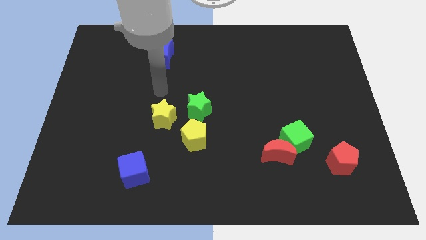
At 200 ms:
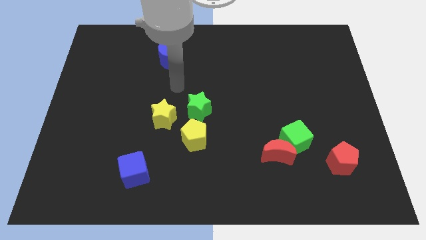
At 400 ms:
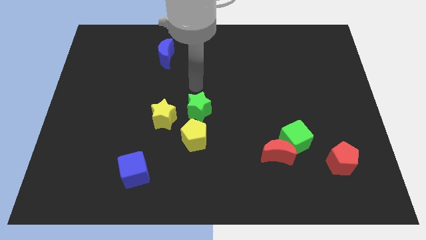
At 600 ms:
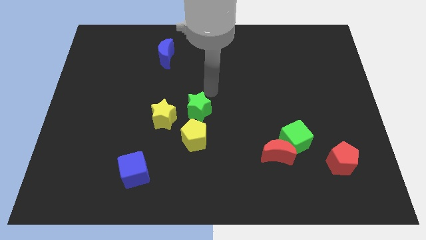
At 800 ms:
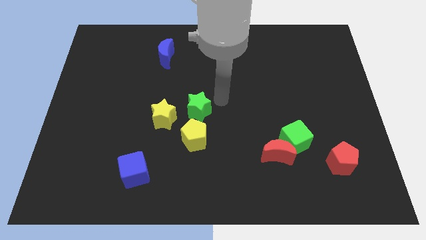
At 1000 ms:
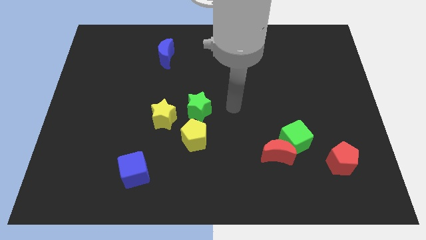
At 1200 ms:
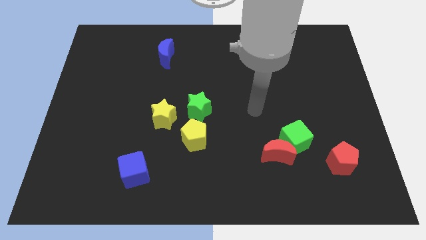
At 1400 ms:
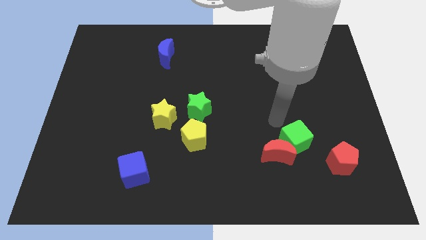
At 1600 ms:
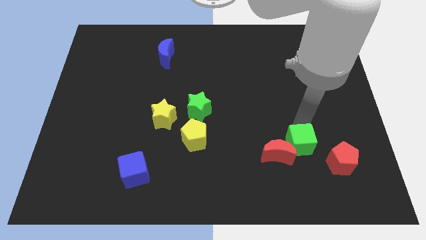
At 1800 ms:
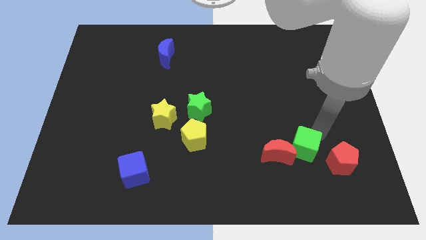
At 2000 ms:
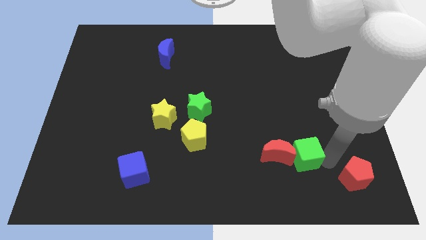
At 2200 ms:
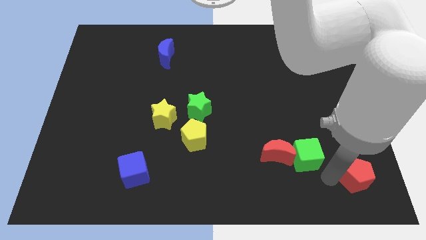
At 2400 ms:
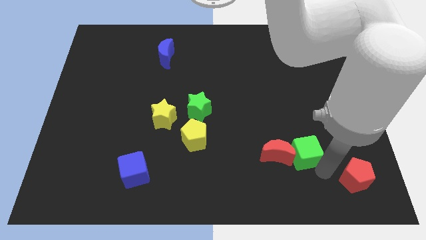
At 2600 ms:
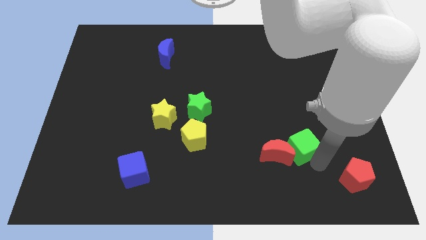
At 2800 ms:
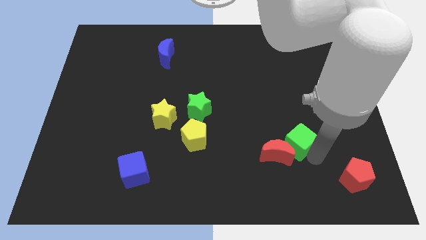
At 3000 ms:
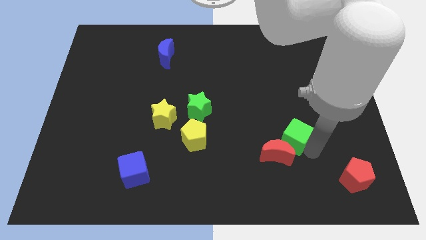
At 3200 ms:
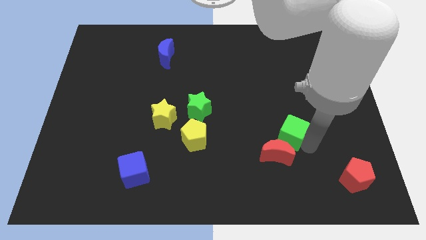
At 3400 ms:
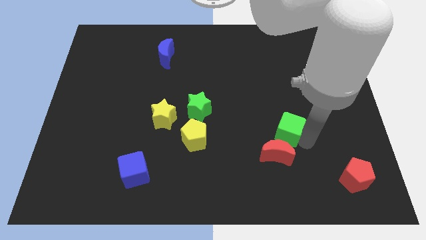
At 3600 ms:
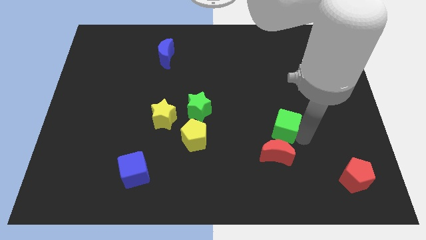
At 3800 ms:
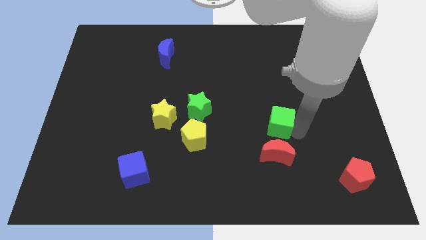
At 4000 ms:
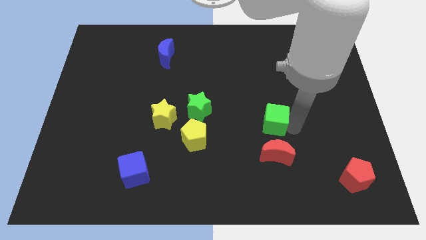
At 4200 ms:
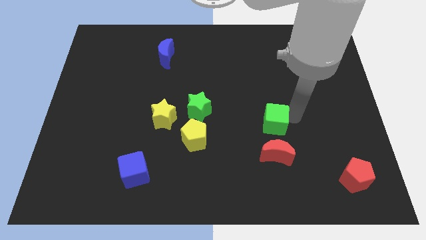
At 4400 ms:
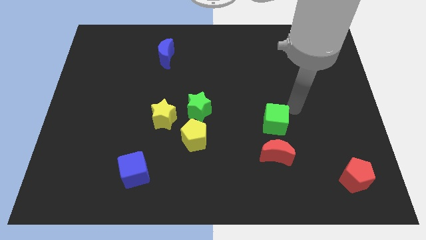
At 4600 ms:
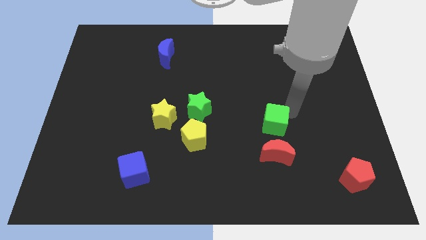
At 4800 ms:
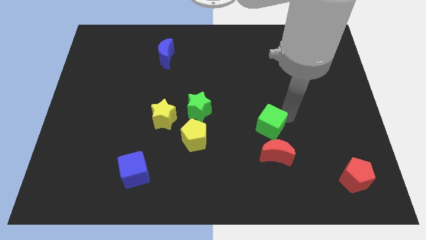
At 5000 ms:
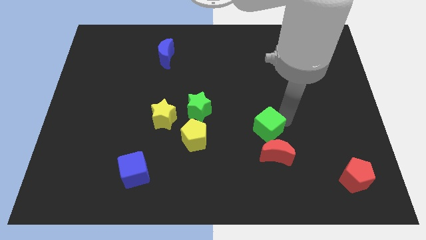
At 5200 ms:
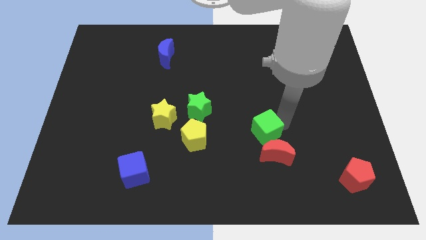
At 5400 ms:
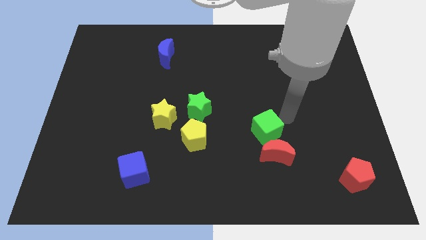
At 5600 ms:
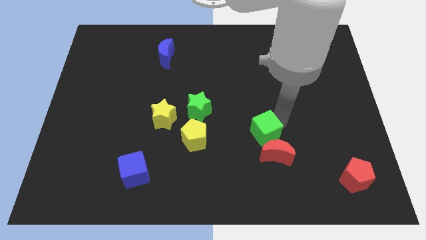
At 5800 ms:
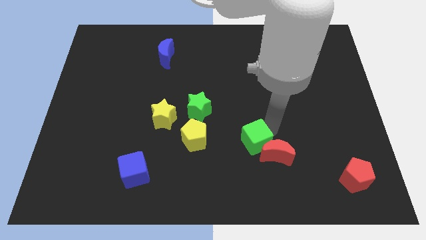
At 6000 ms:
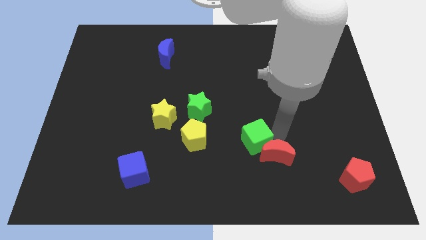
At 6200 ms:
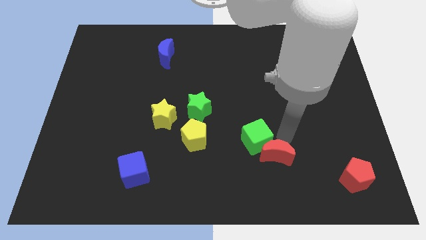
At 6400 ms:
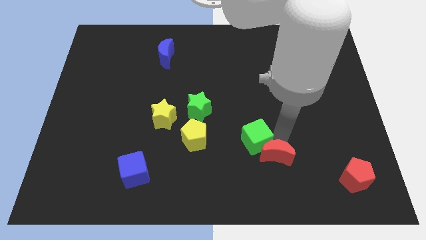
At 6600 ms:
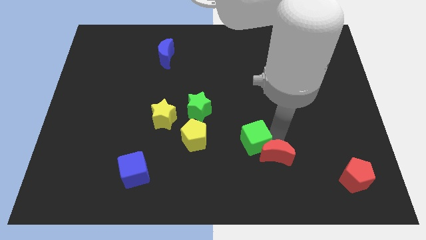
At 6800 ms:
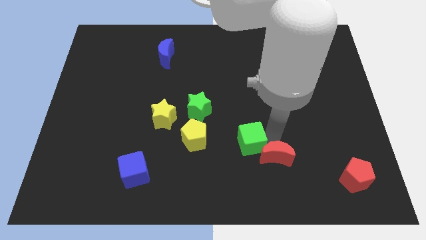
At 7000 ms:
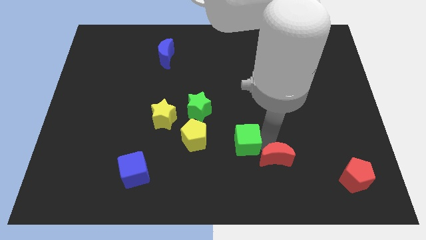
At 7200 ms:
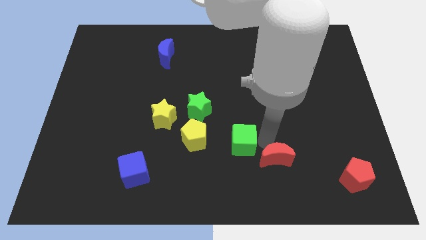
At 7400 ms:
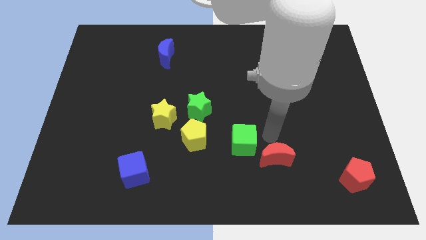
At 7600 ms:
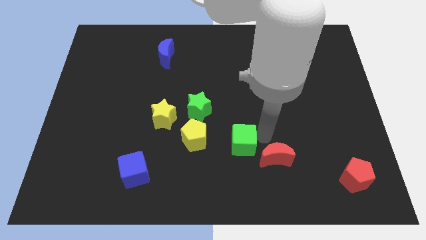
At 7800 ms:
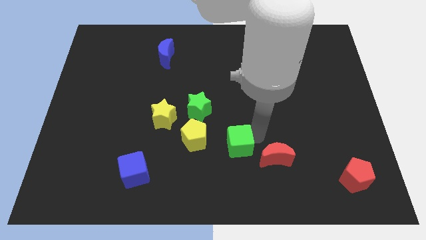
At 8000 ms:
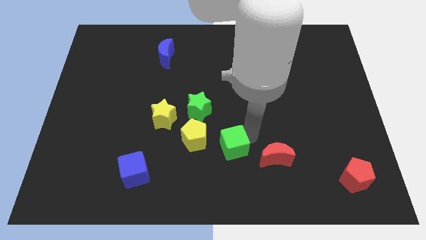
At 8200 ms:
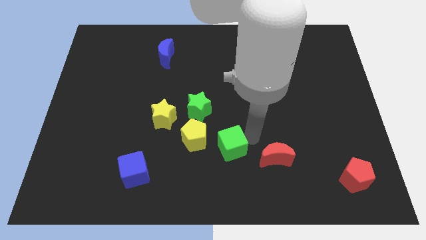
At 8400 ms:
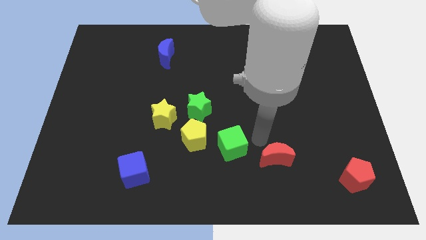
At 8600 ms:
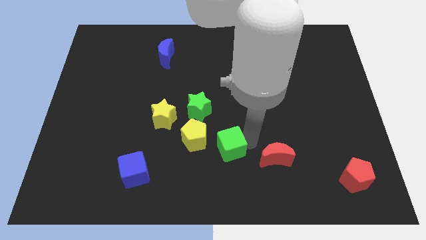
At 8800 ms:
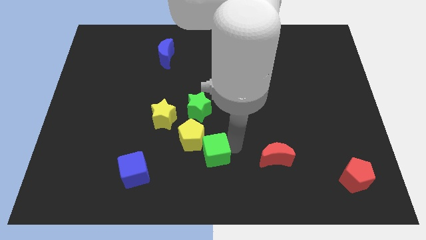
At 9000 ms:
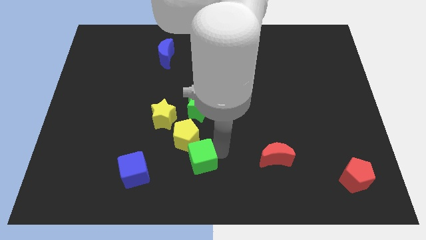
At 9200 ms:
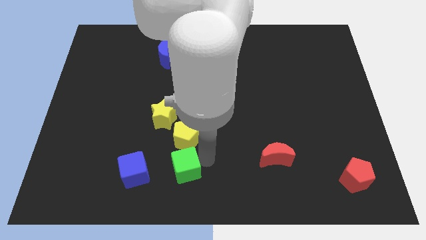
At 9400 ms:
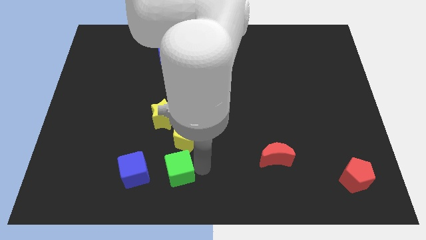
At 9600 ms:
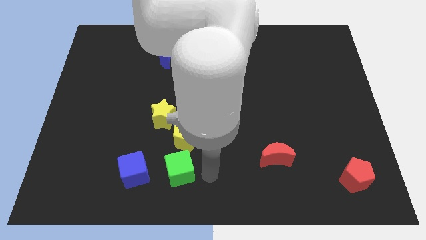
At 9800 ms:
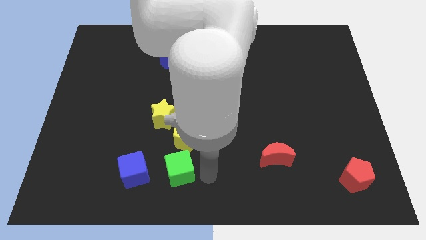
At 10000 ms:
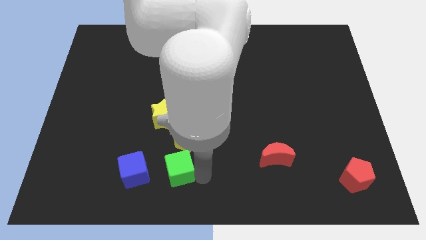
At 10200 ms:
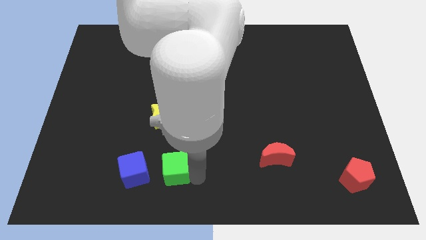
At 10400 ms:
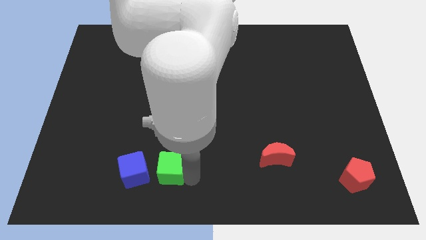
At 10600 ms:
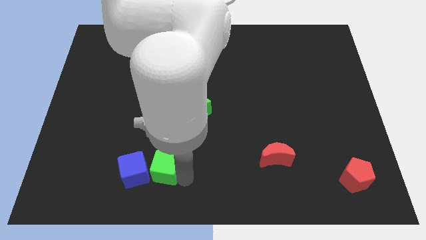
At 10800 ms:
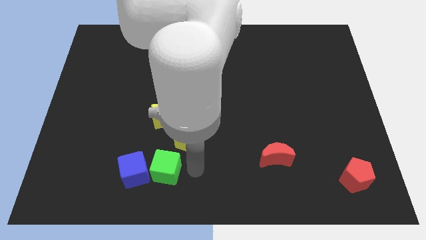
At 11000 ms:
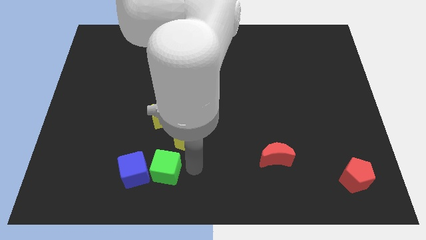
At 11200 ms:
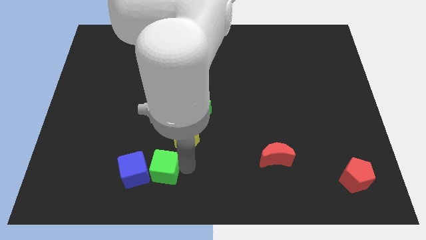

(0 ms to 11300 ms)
put the green cube next to the blue cube

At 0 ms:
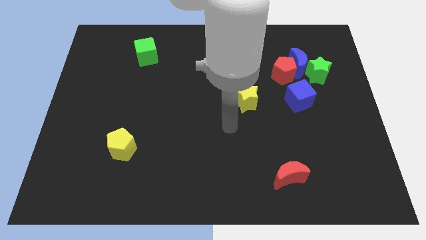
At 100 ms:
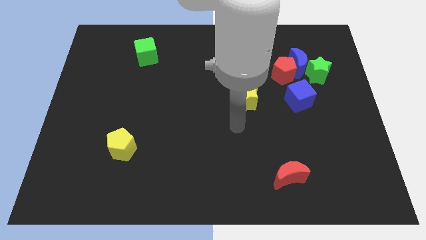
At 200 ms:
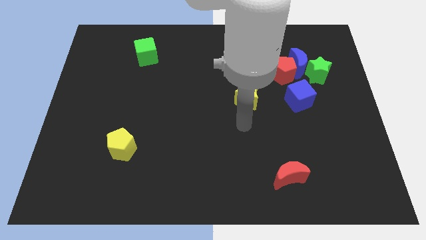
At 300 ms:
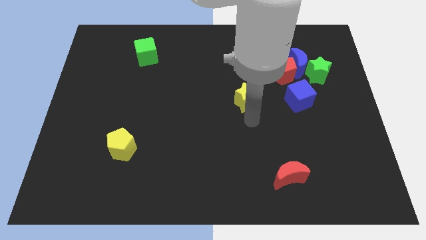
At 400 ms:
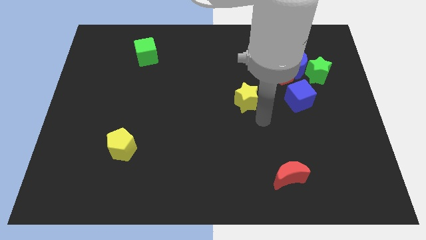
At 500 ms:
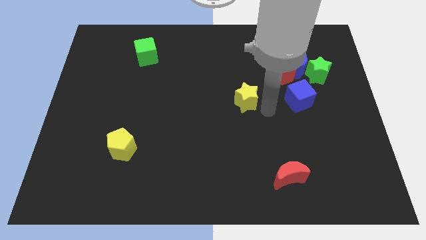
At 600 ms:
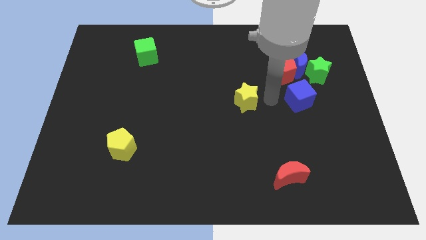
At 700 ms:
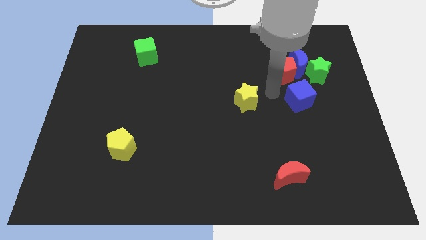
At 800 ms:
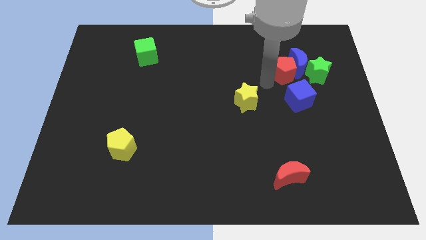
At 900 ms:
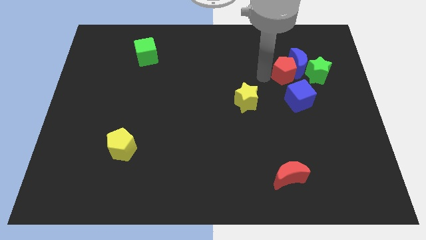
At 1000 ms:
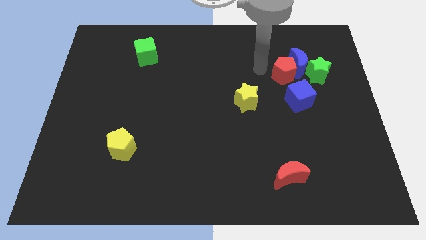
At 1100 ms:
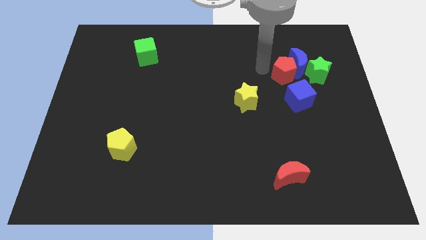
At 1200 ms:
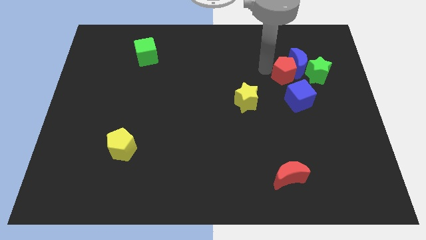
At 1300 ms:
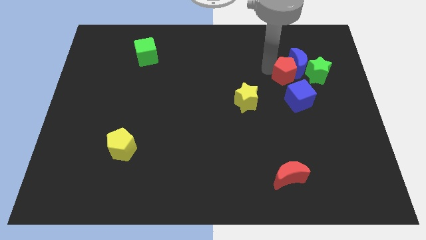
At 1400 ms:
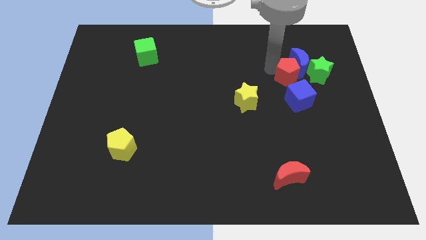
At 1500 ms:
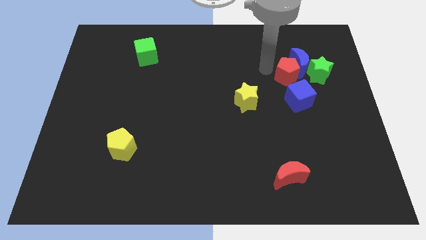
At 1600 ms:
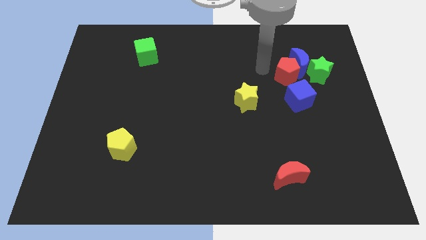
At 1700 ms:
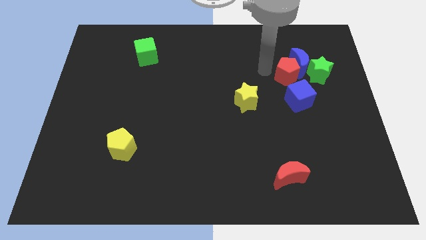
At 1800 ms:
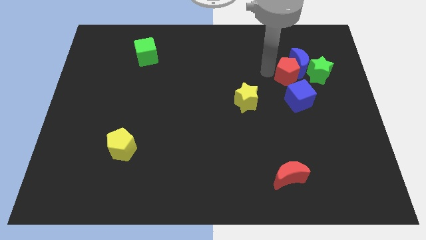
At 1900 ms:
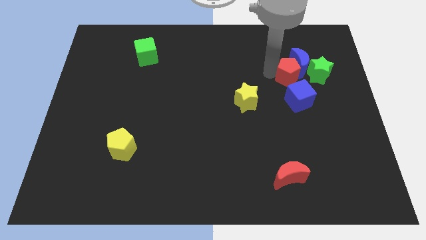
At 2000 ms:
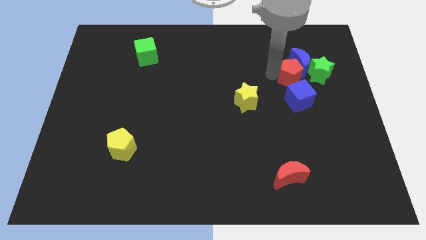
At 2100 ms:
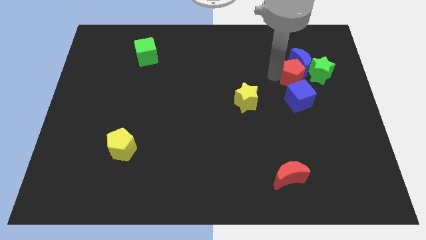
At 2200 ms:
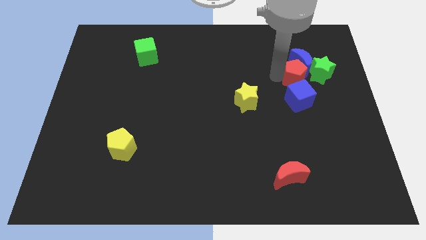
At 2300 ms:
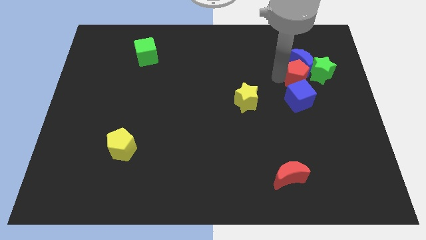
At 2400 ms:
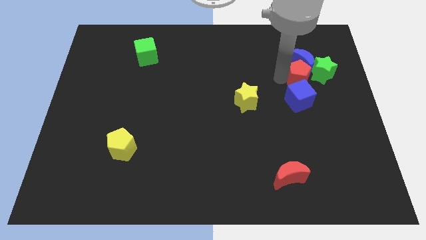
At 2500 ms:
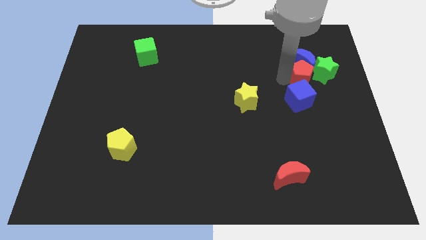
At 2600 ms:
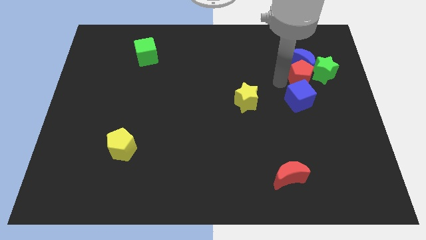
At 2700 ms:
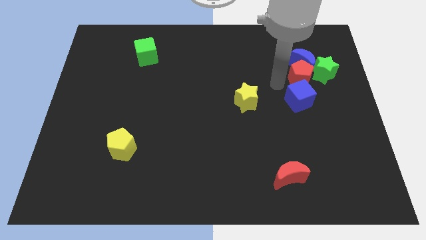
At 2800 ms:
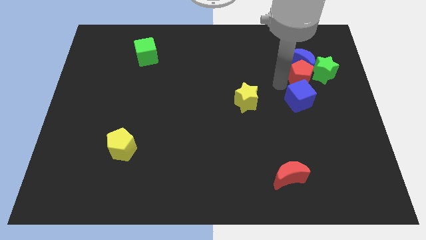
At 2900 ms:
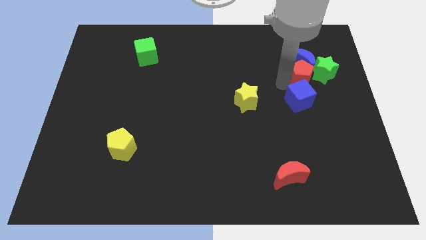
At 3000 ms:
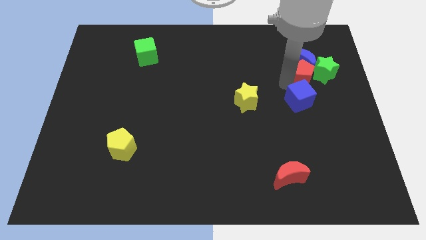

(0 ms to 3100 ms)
push the red pentagon close to the green star
